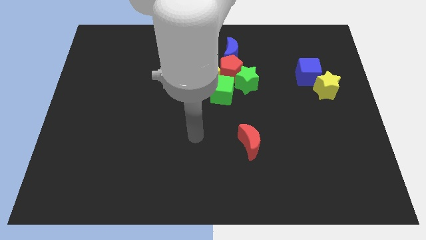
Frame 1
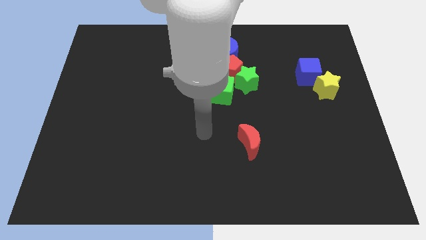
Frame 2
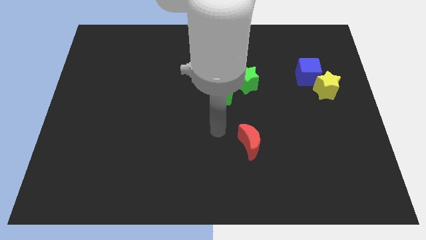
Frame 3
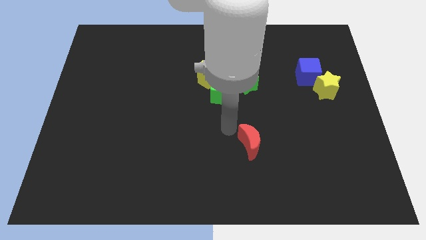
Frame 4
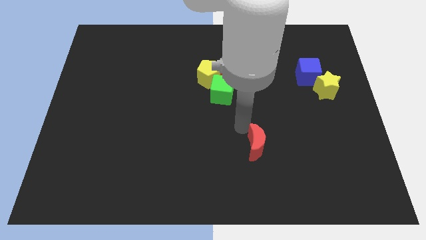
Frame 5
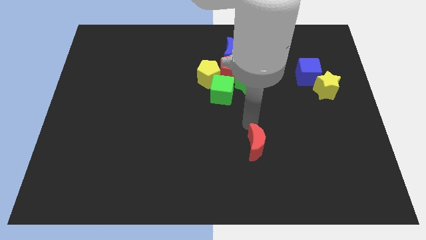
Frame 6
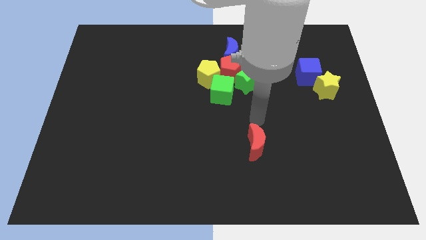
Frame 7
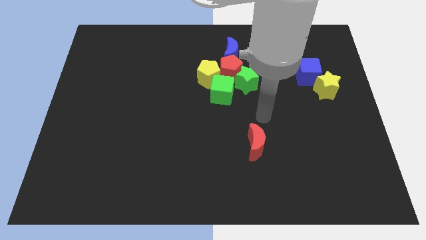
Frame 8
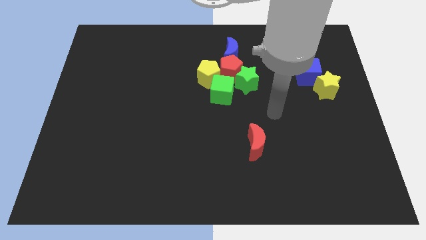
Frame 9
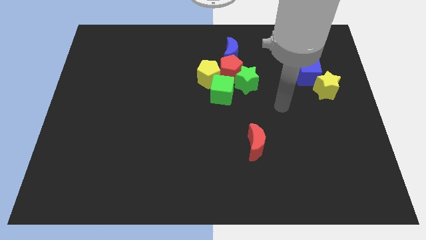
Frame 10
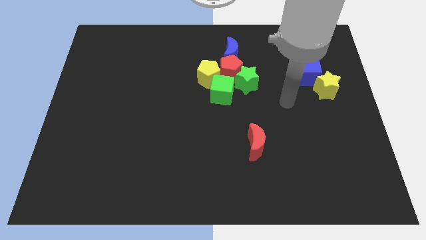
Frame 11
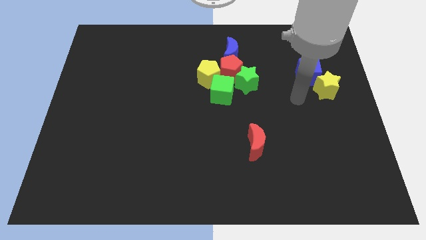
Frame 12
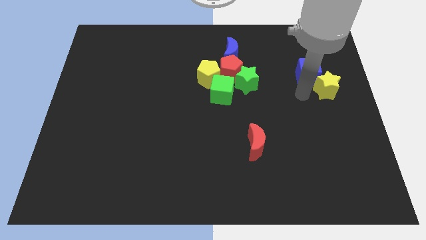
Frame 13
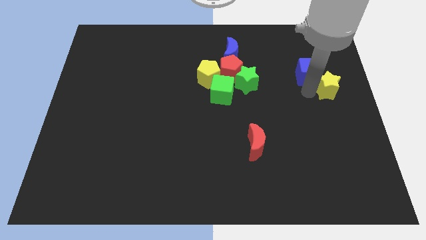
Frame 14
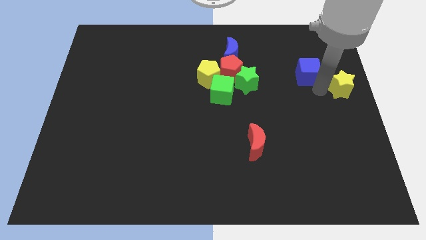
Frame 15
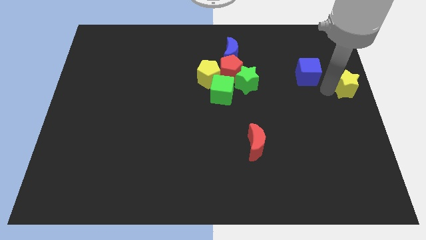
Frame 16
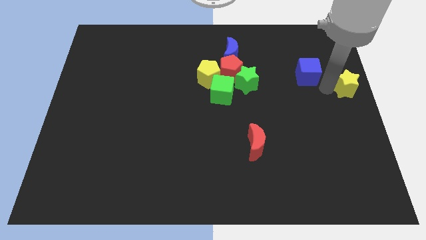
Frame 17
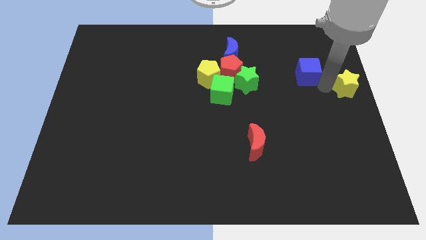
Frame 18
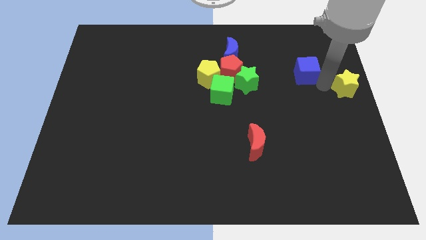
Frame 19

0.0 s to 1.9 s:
pull the blue cube apart from the yellow star

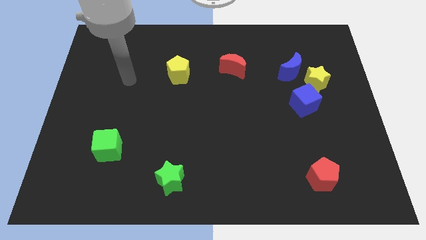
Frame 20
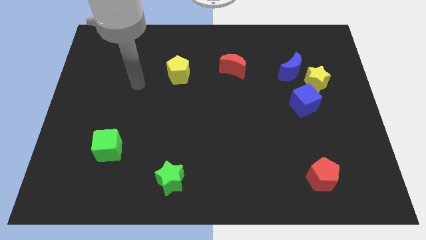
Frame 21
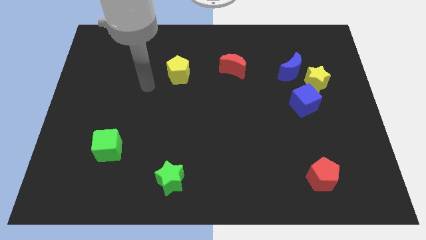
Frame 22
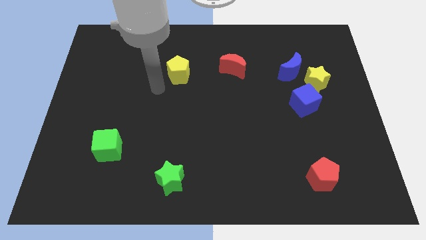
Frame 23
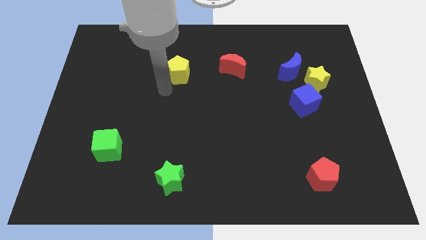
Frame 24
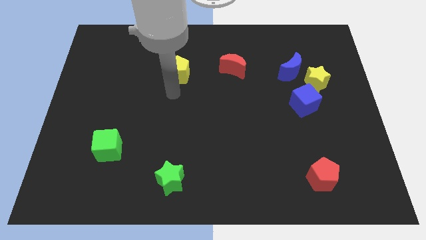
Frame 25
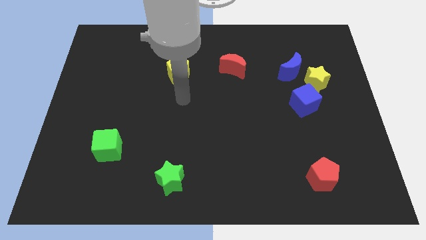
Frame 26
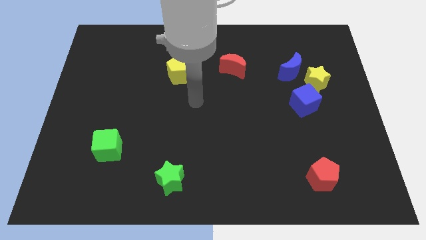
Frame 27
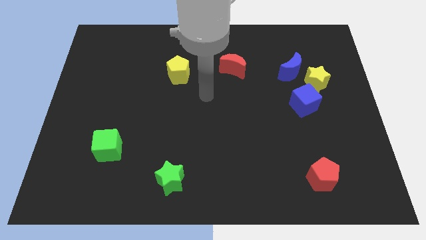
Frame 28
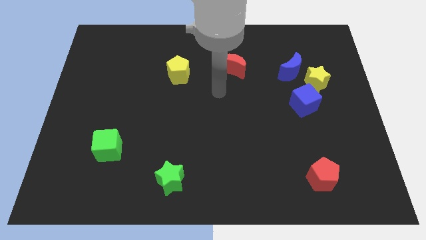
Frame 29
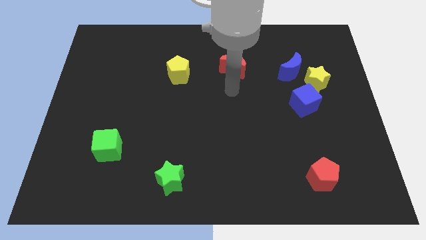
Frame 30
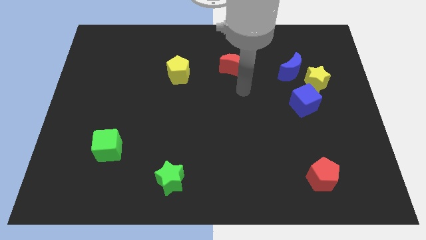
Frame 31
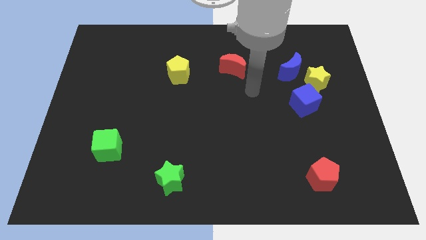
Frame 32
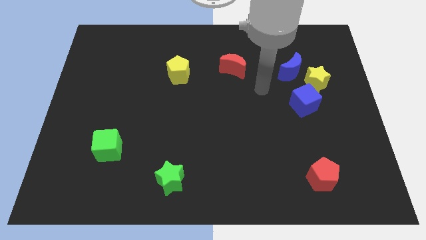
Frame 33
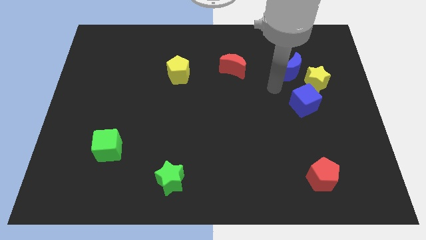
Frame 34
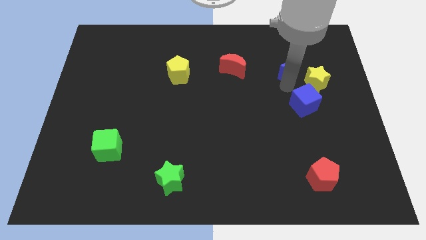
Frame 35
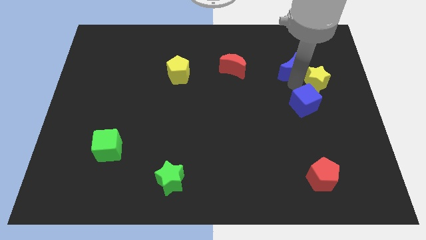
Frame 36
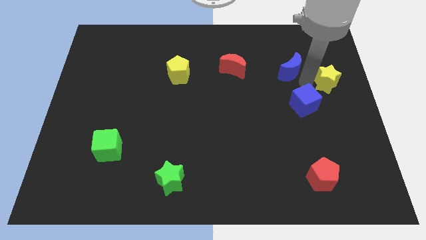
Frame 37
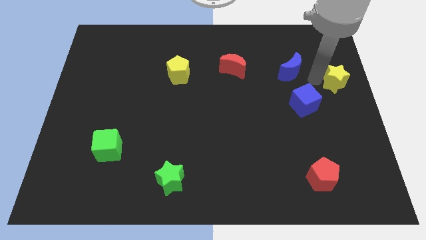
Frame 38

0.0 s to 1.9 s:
separate the blue moon from the yellow star

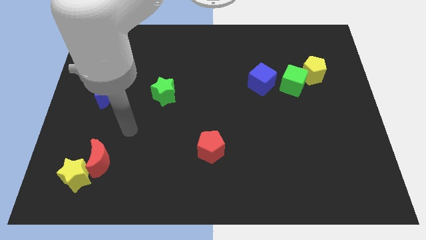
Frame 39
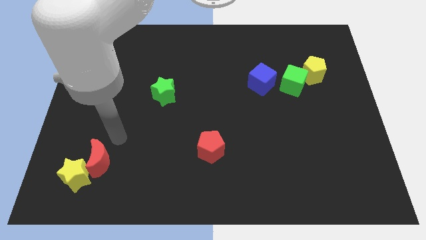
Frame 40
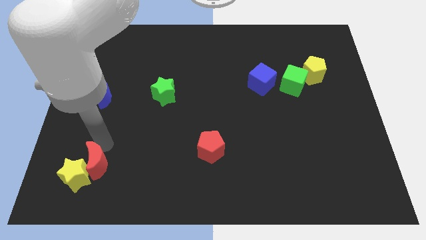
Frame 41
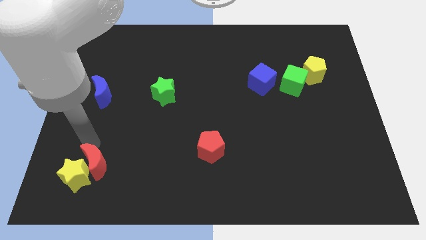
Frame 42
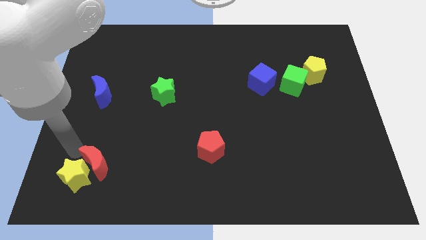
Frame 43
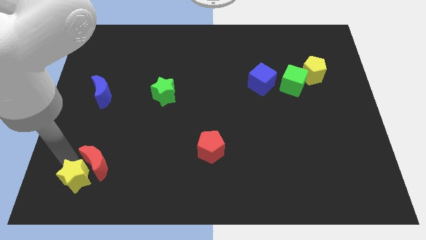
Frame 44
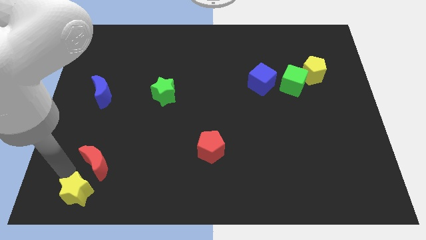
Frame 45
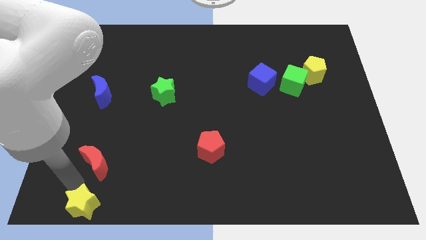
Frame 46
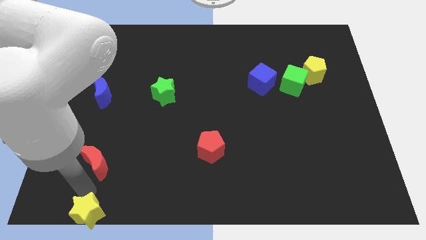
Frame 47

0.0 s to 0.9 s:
separate the red moon from the yellow star

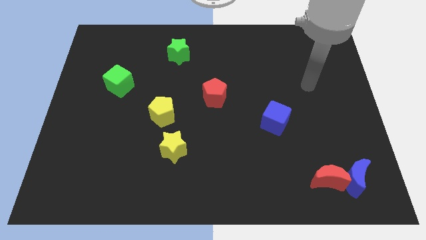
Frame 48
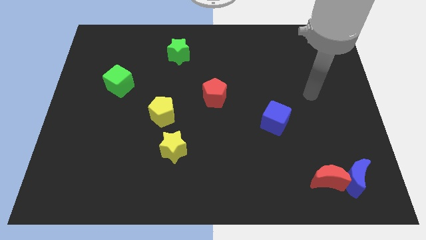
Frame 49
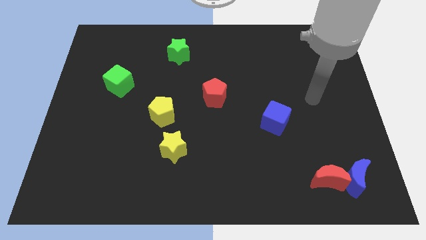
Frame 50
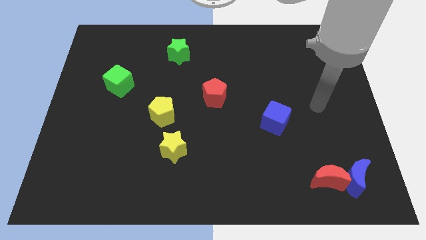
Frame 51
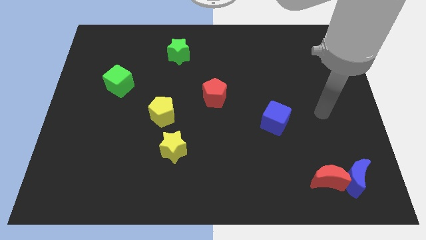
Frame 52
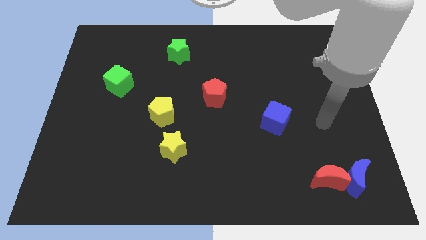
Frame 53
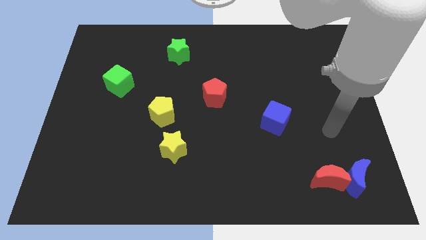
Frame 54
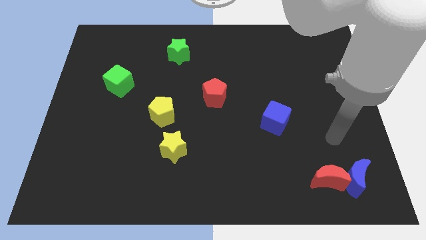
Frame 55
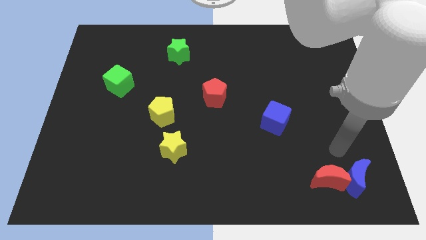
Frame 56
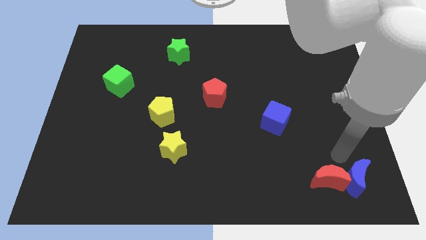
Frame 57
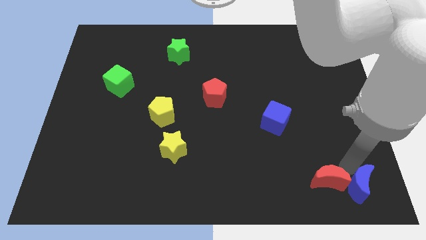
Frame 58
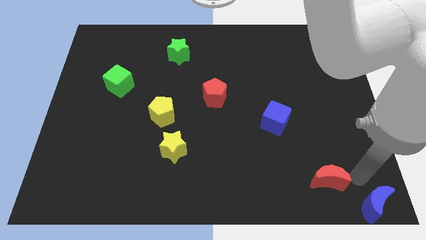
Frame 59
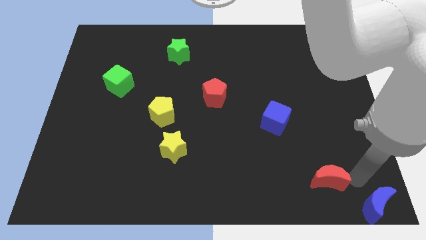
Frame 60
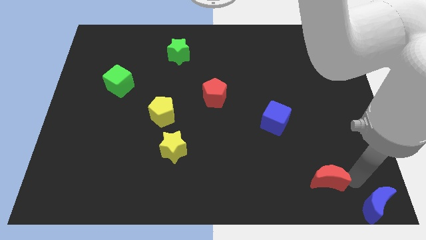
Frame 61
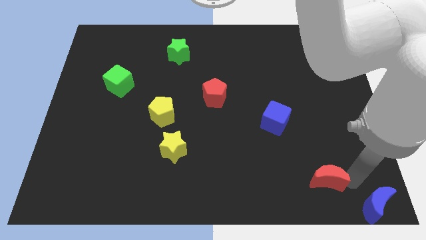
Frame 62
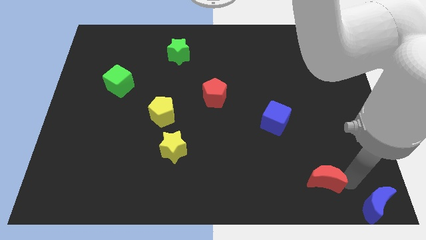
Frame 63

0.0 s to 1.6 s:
separate the red moon from the blue moon

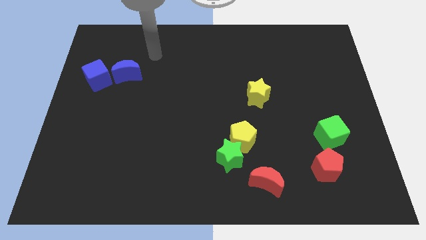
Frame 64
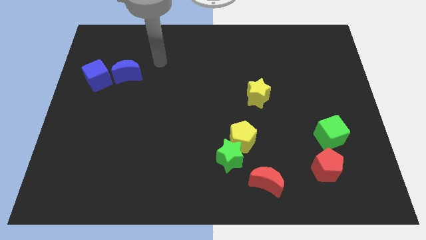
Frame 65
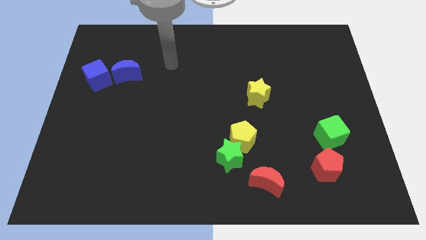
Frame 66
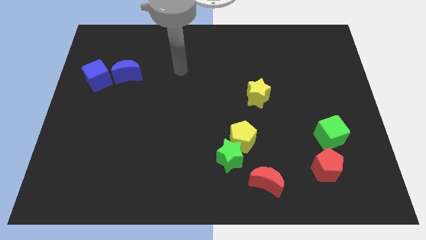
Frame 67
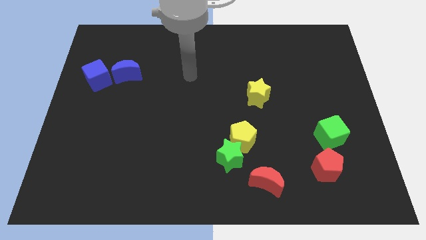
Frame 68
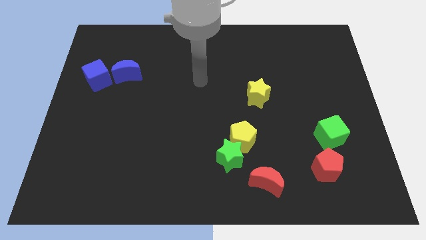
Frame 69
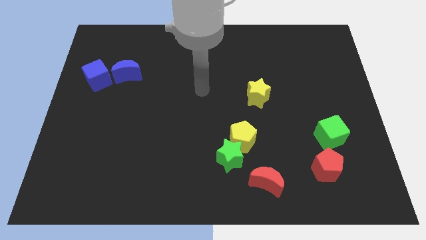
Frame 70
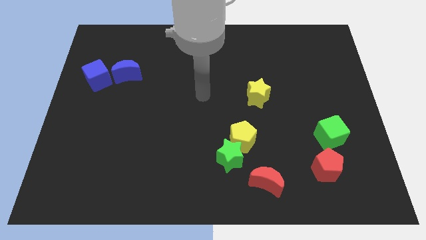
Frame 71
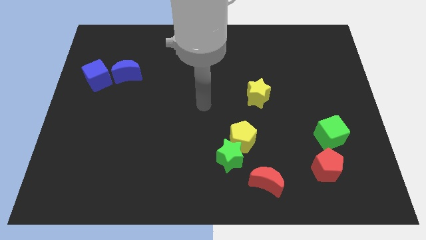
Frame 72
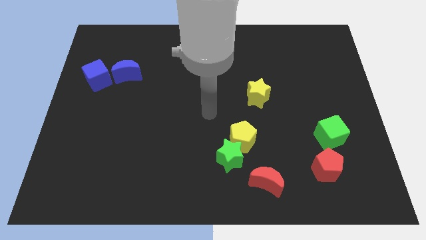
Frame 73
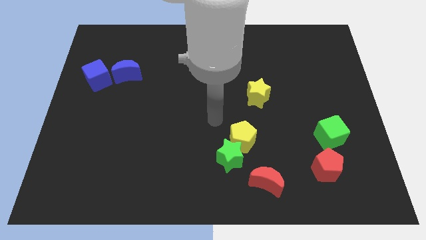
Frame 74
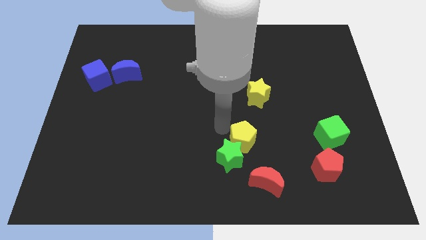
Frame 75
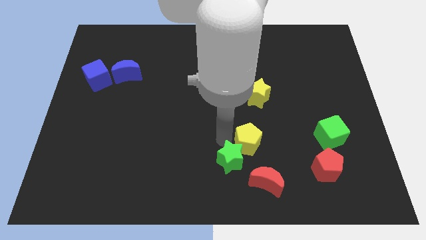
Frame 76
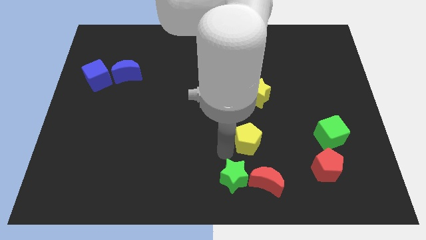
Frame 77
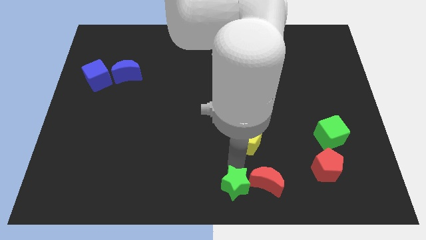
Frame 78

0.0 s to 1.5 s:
pull the yellow pentagon apart from the green star

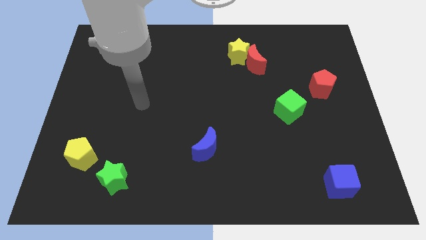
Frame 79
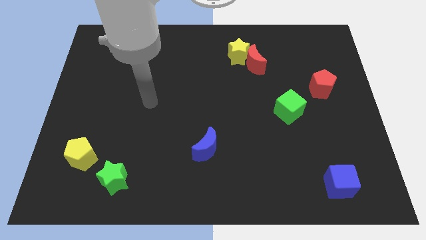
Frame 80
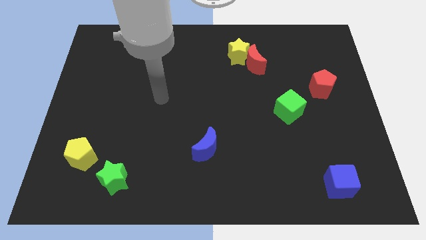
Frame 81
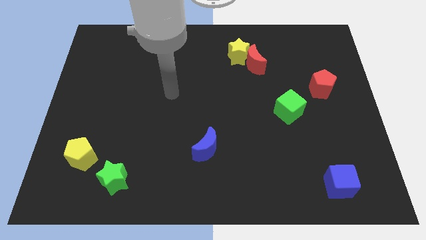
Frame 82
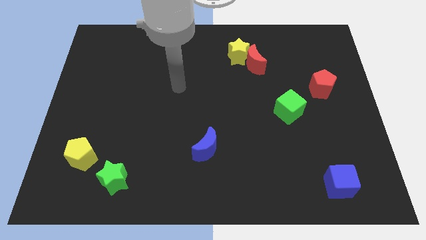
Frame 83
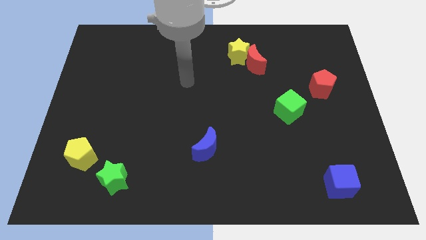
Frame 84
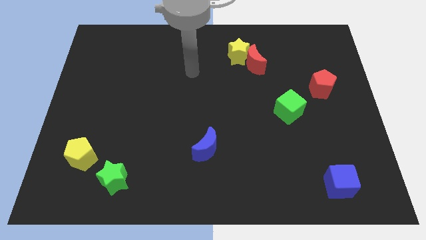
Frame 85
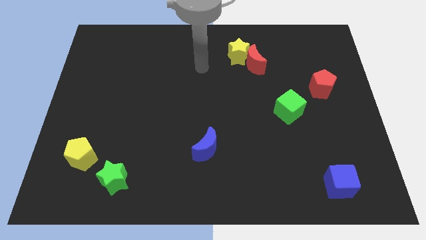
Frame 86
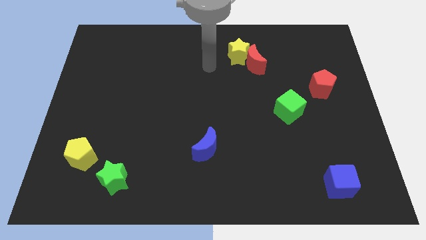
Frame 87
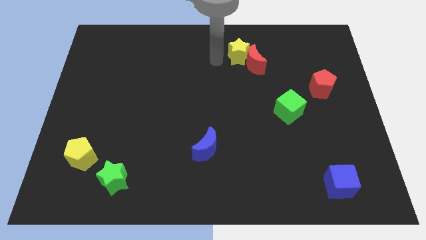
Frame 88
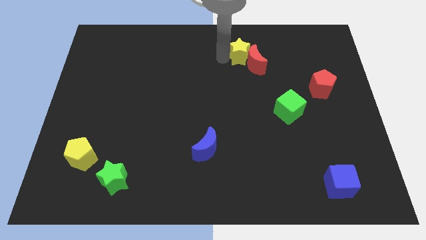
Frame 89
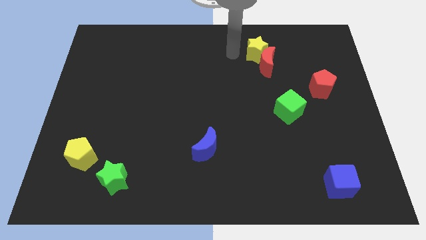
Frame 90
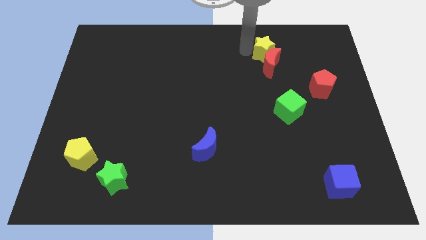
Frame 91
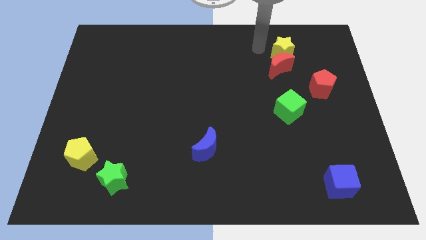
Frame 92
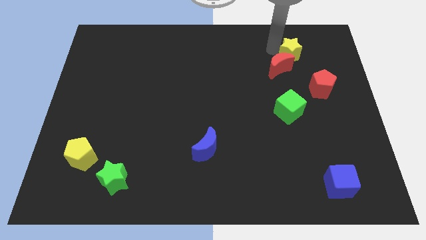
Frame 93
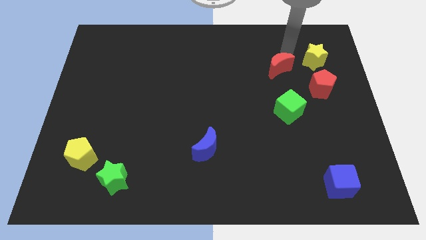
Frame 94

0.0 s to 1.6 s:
pull the red moon apart from the yellow star

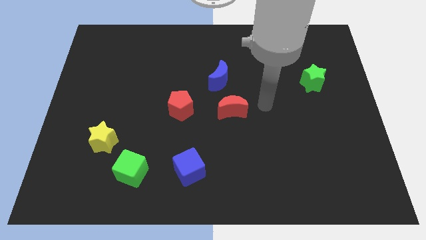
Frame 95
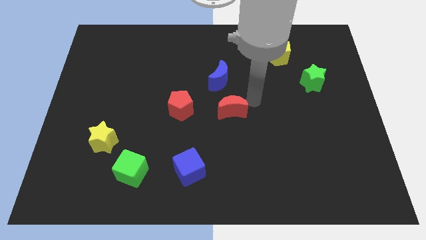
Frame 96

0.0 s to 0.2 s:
move the red moon away from the blue moon
